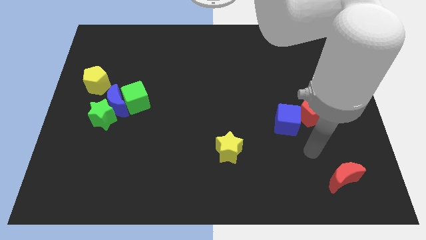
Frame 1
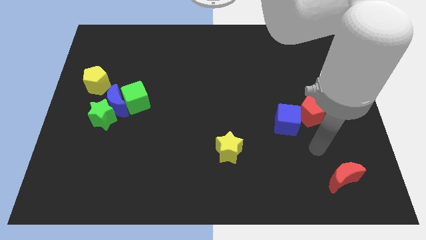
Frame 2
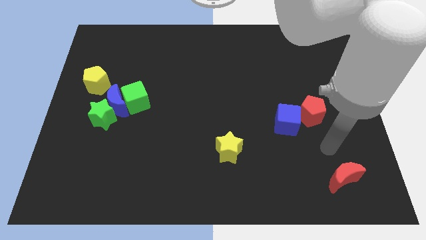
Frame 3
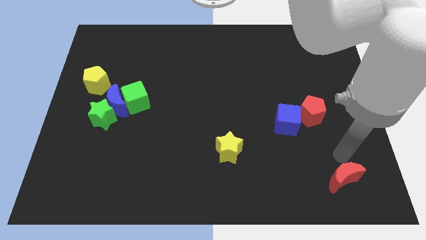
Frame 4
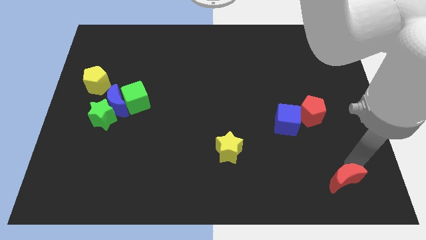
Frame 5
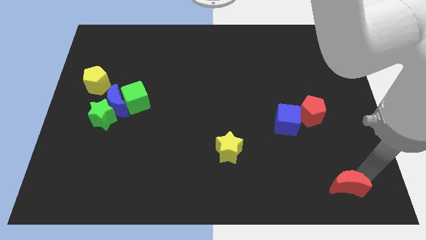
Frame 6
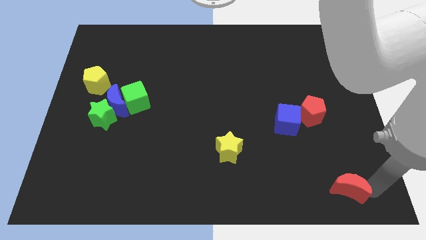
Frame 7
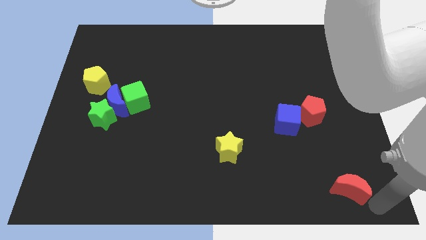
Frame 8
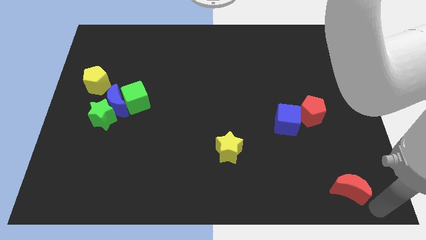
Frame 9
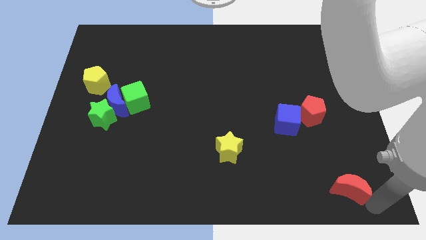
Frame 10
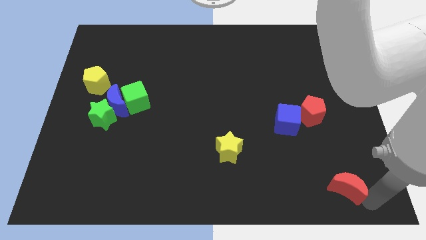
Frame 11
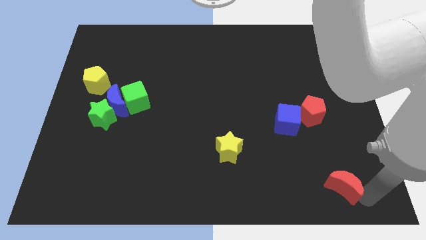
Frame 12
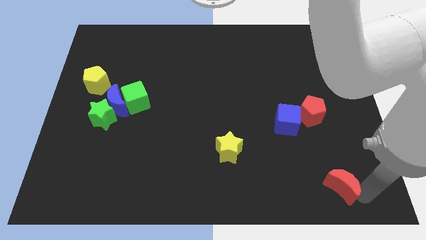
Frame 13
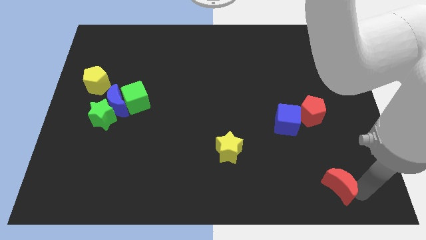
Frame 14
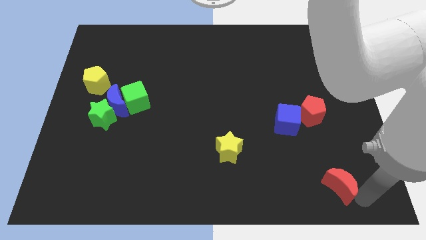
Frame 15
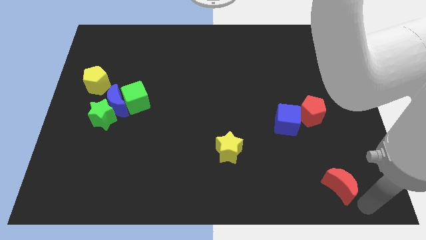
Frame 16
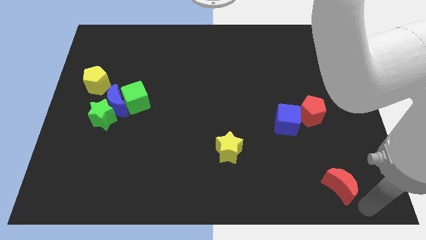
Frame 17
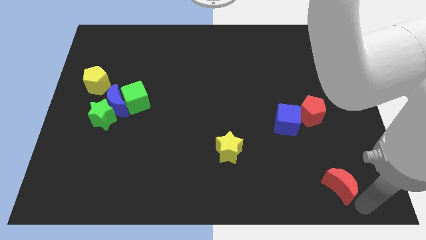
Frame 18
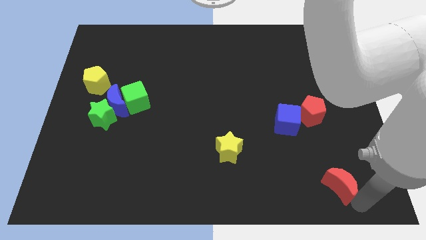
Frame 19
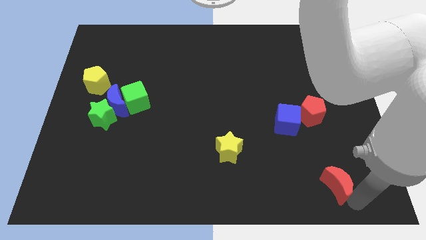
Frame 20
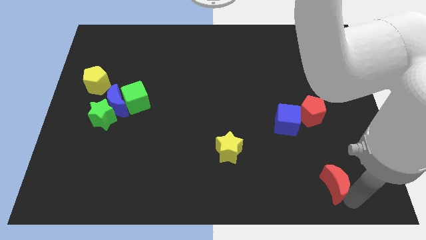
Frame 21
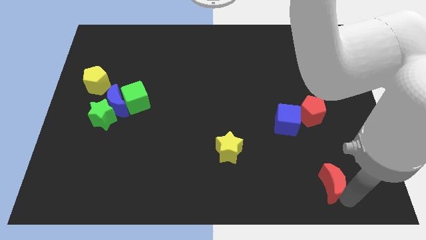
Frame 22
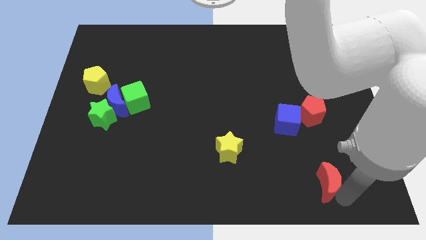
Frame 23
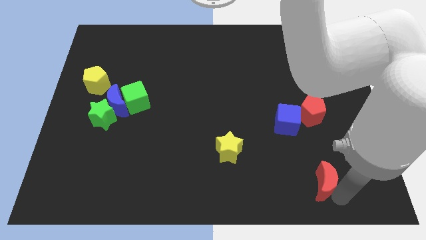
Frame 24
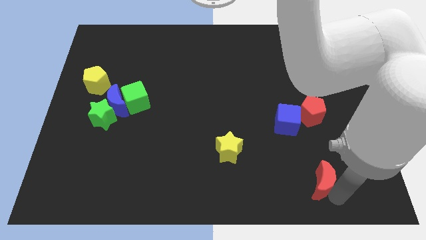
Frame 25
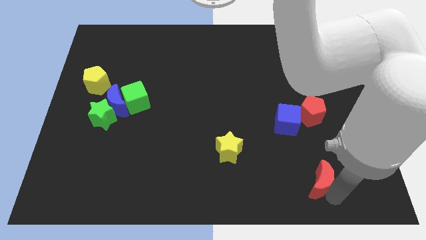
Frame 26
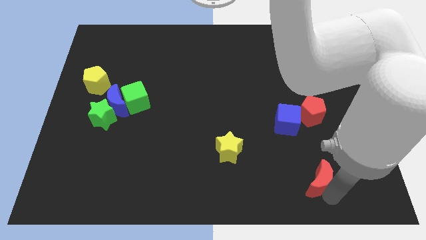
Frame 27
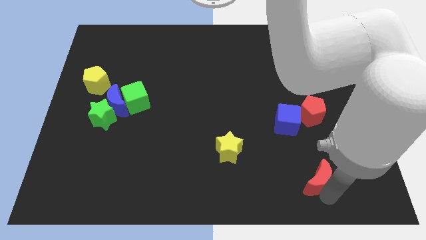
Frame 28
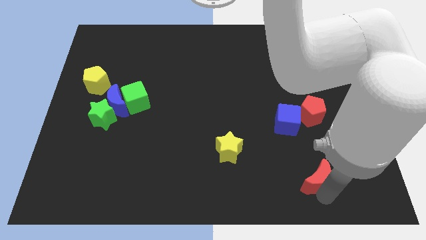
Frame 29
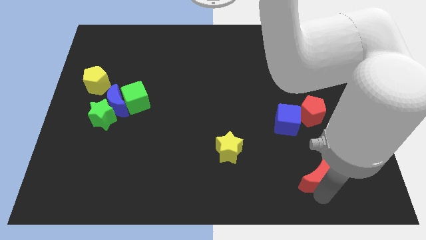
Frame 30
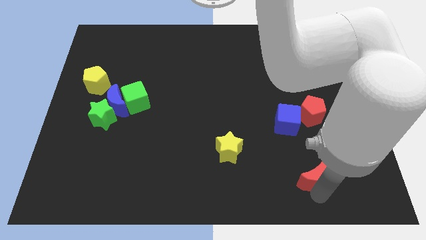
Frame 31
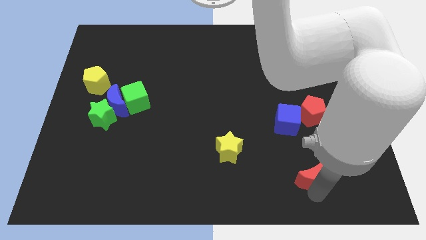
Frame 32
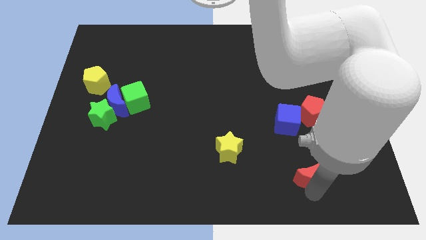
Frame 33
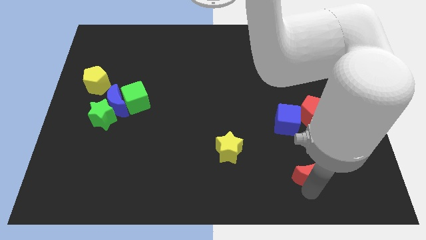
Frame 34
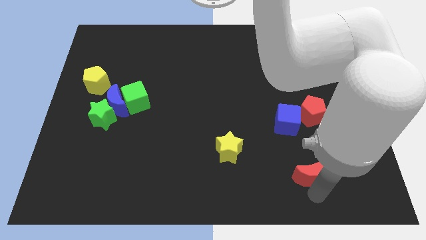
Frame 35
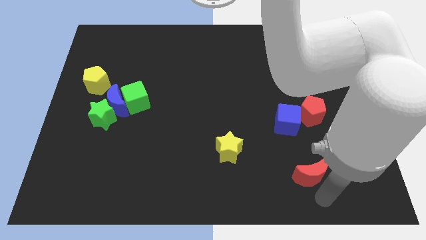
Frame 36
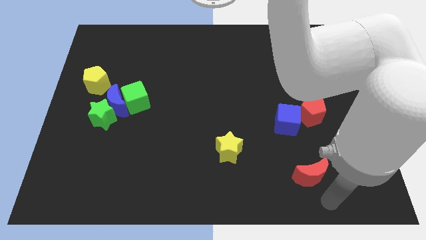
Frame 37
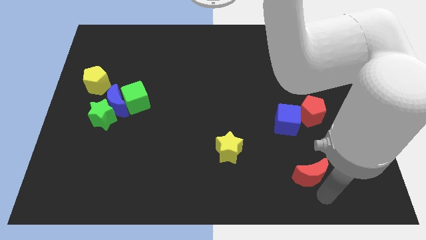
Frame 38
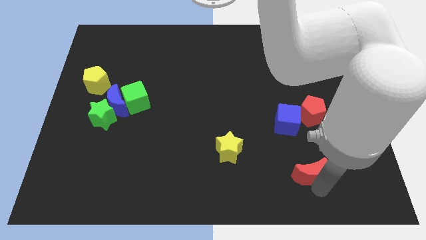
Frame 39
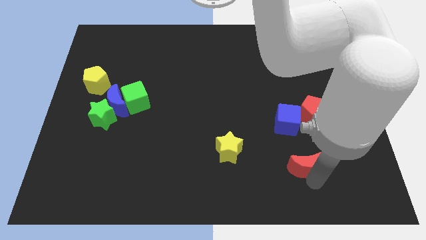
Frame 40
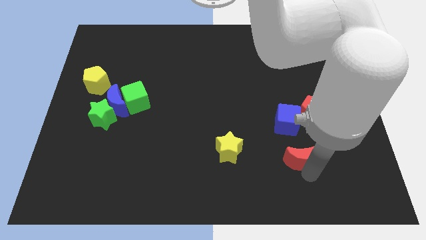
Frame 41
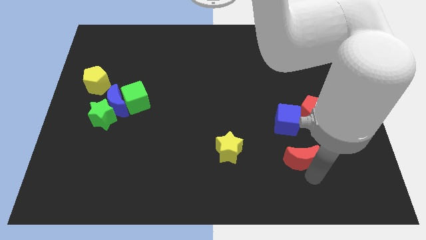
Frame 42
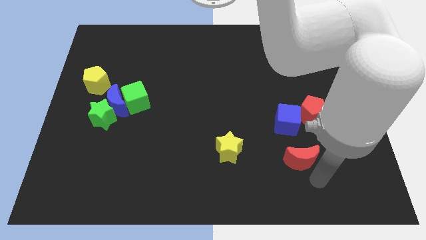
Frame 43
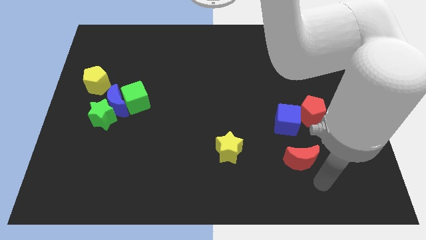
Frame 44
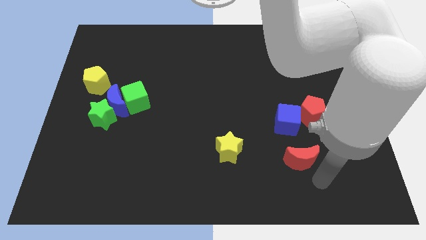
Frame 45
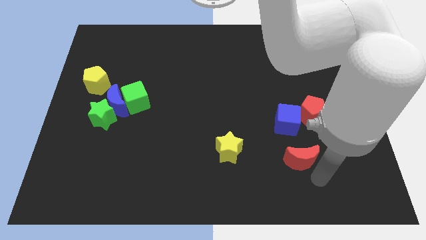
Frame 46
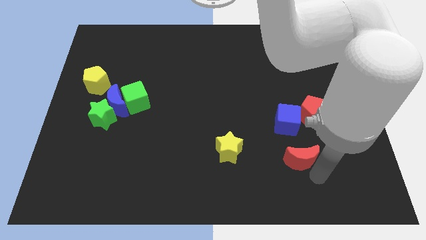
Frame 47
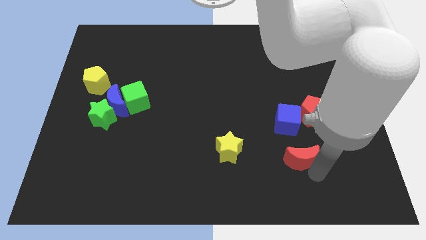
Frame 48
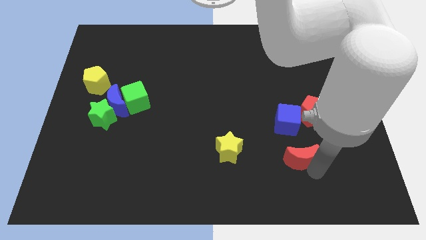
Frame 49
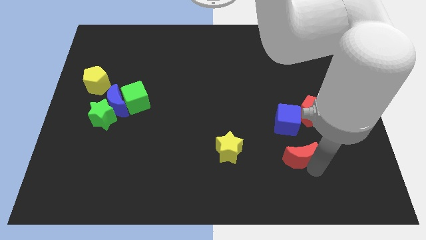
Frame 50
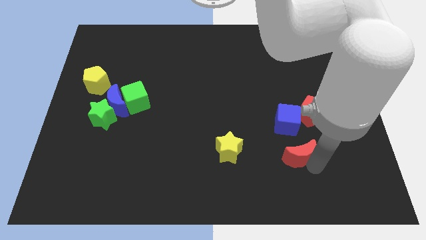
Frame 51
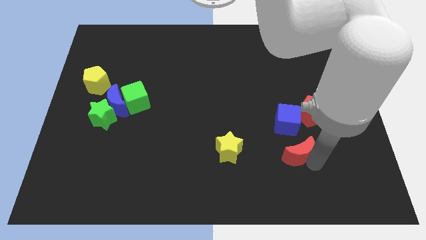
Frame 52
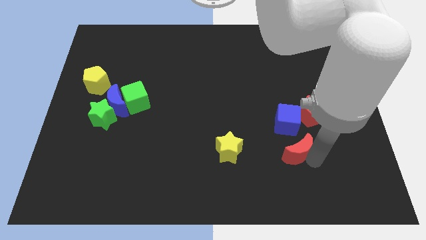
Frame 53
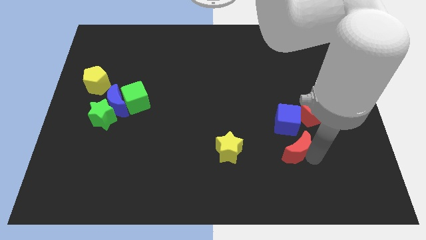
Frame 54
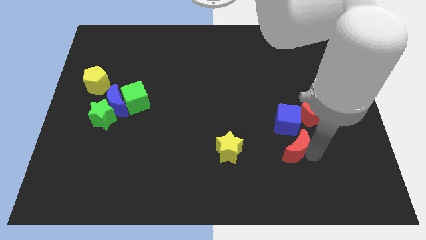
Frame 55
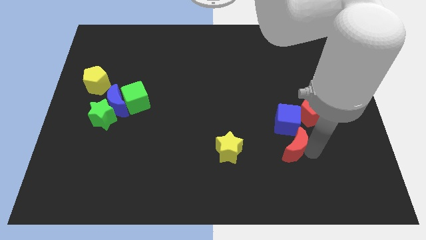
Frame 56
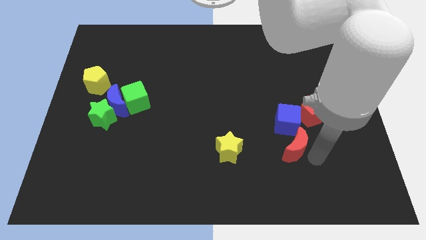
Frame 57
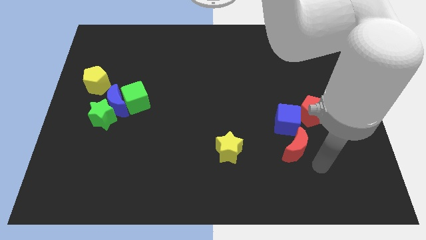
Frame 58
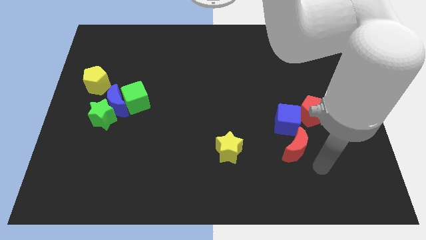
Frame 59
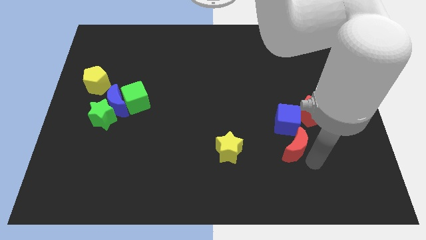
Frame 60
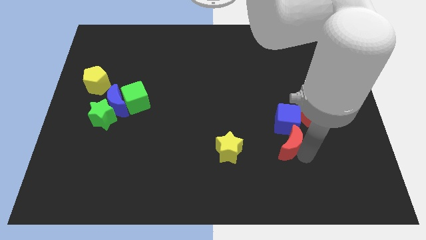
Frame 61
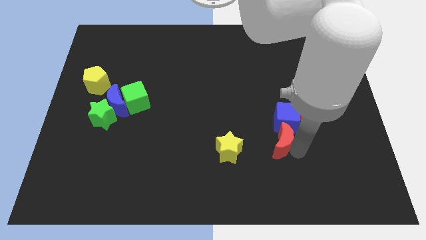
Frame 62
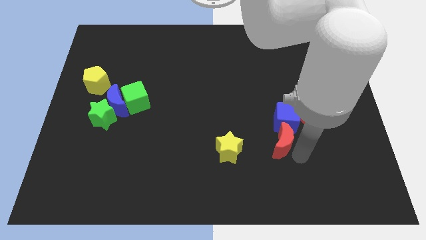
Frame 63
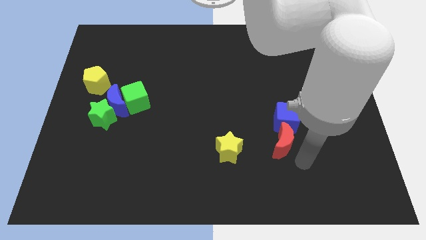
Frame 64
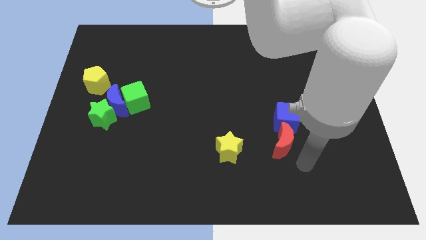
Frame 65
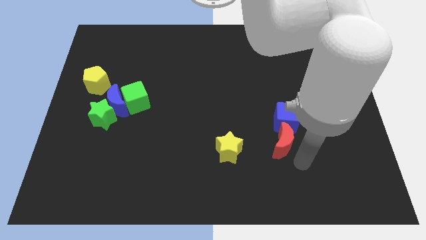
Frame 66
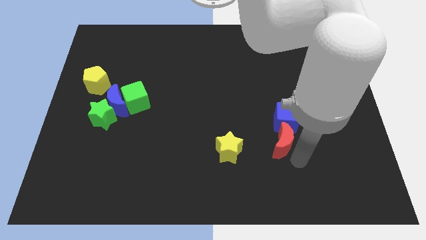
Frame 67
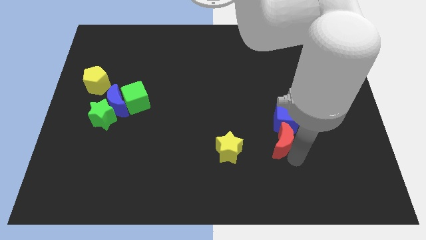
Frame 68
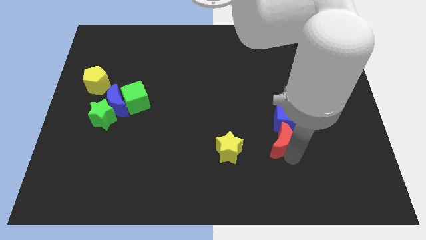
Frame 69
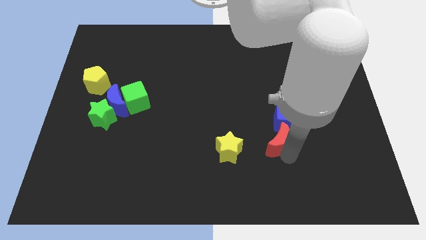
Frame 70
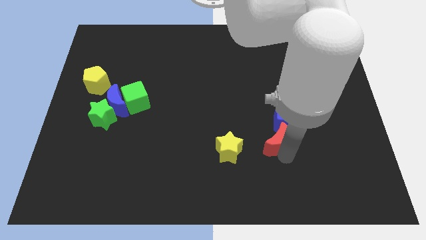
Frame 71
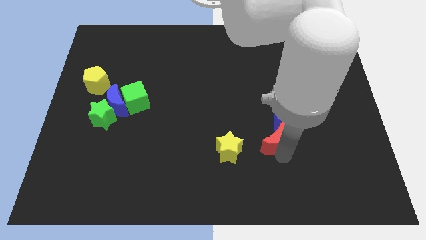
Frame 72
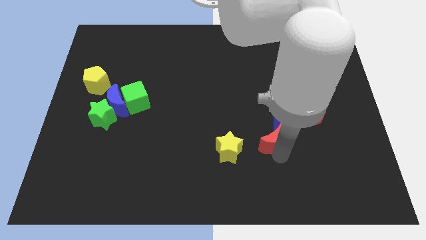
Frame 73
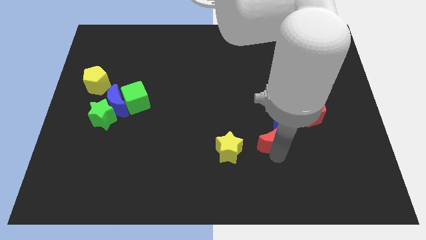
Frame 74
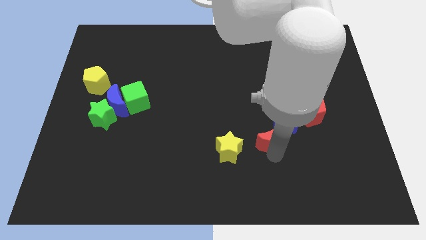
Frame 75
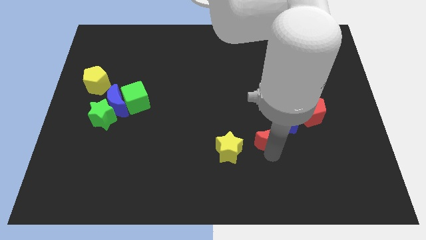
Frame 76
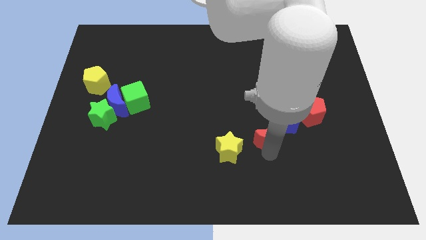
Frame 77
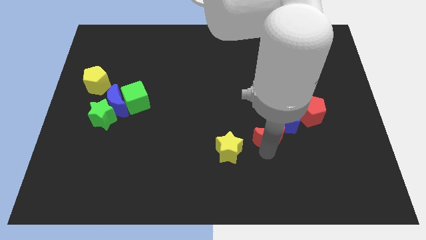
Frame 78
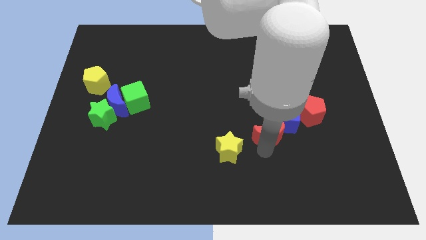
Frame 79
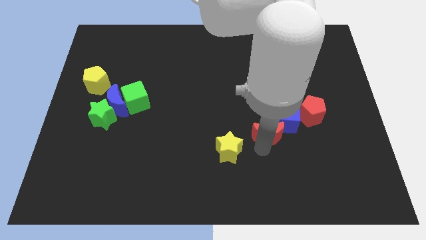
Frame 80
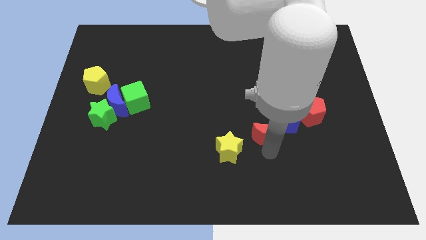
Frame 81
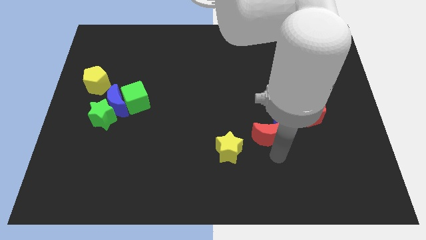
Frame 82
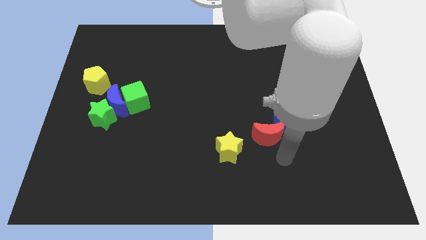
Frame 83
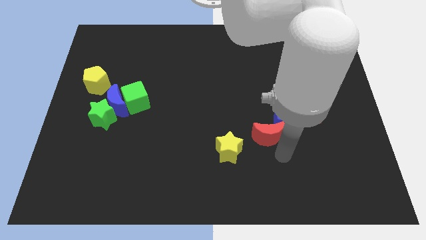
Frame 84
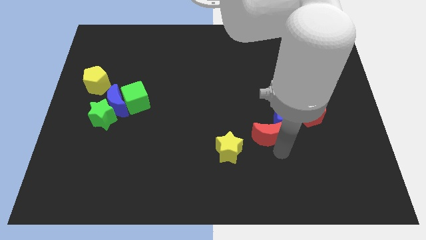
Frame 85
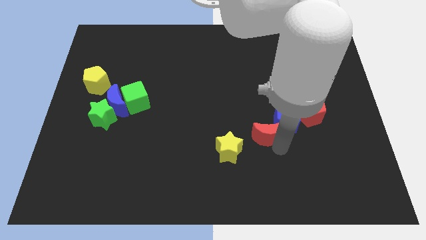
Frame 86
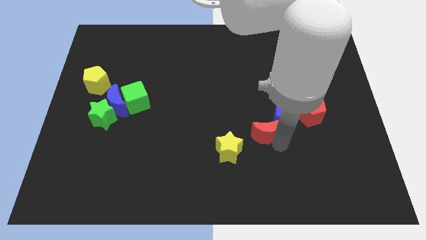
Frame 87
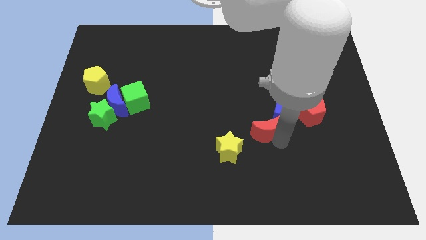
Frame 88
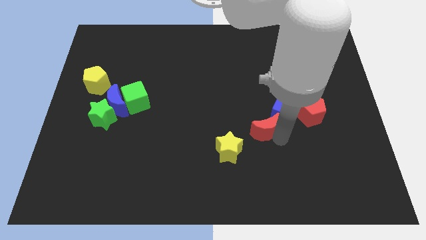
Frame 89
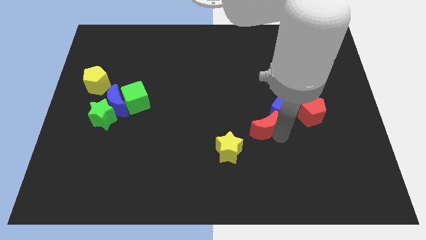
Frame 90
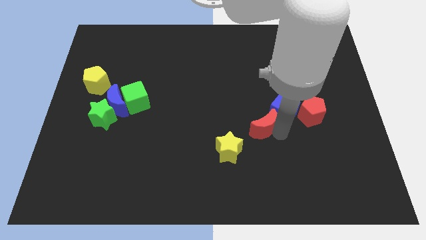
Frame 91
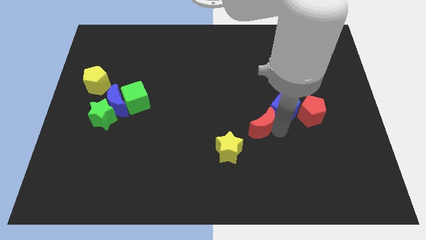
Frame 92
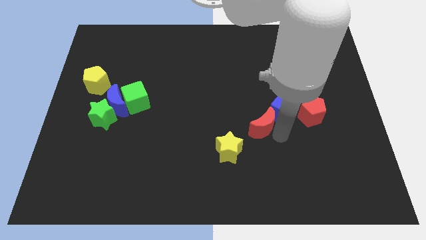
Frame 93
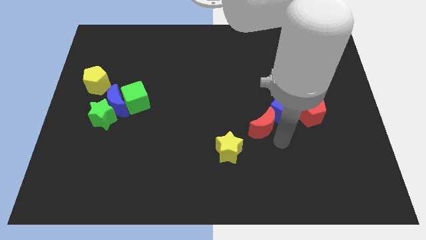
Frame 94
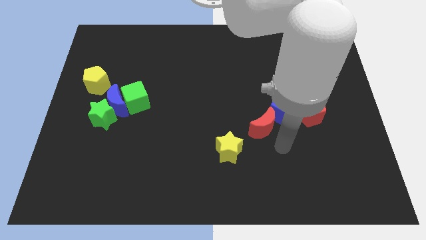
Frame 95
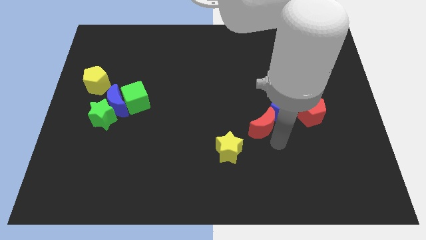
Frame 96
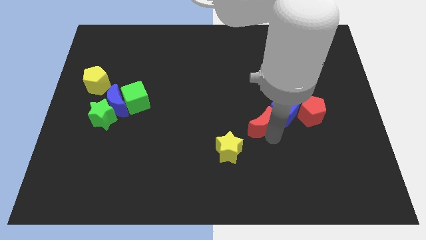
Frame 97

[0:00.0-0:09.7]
push the red moon diagonally upwards and to the left
